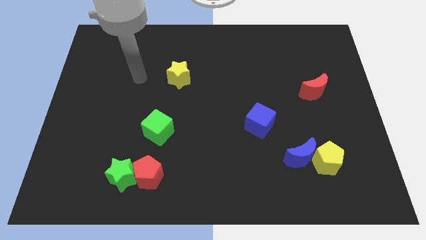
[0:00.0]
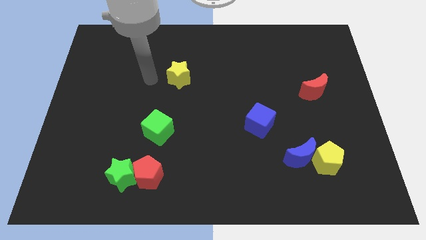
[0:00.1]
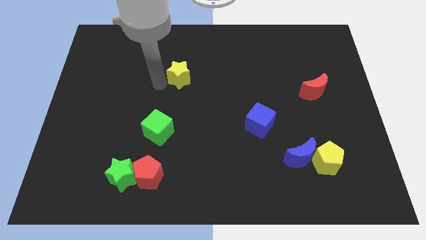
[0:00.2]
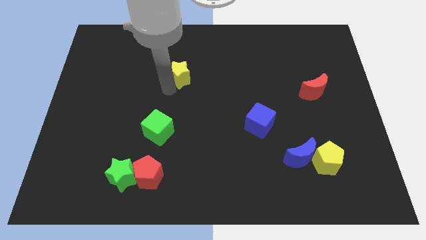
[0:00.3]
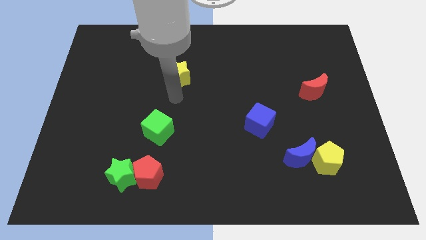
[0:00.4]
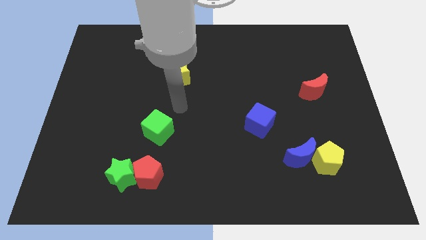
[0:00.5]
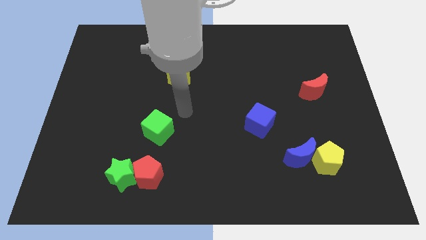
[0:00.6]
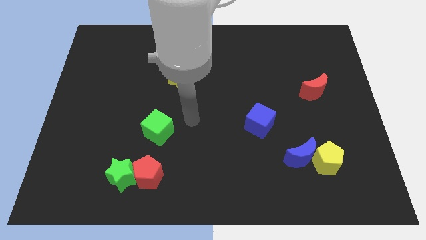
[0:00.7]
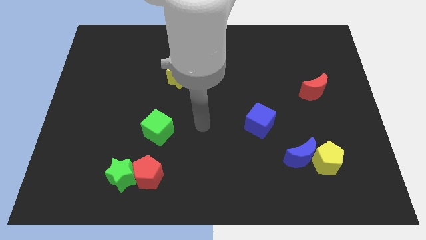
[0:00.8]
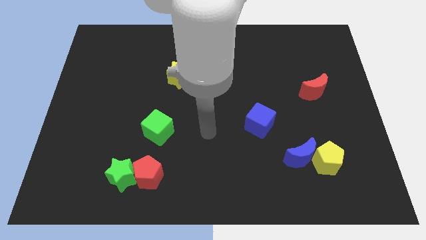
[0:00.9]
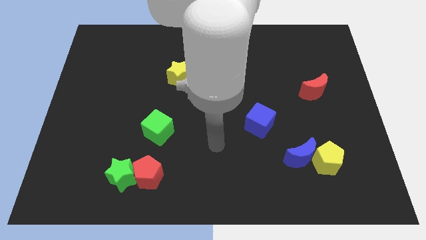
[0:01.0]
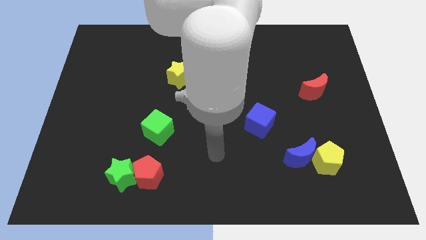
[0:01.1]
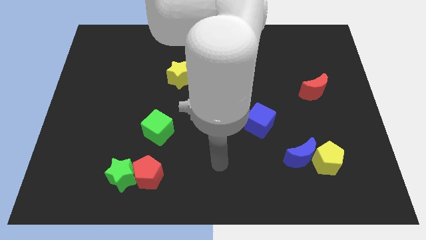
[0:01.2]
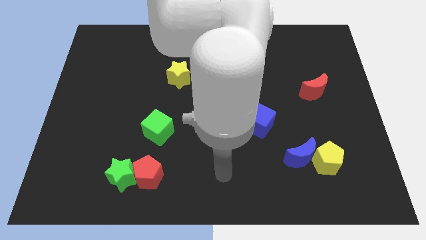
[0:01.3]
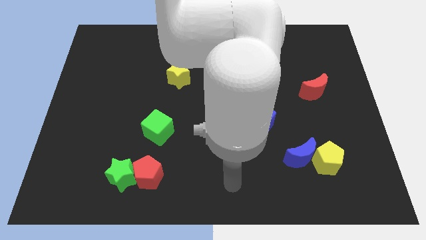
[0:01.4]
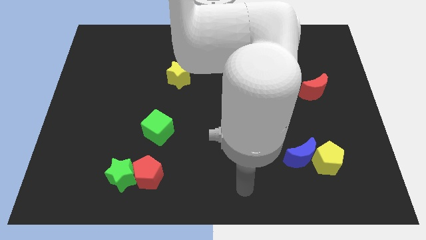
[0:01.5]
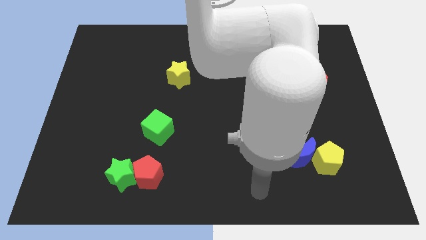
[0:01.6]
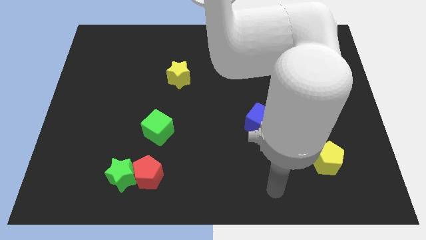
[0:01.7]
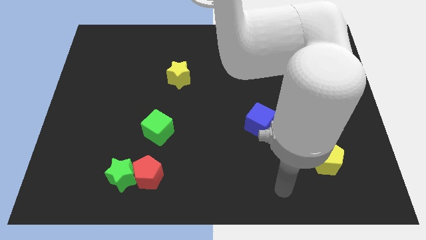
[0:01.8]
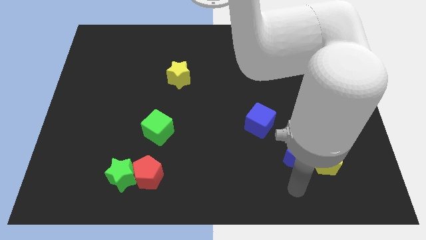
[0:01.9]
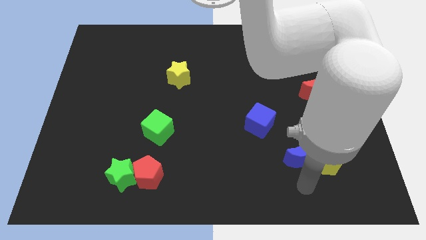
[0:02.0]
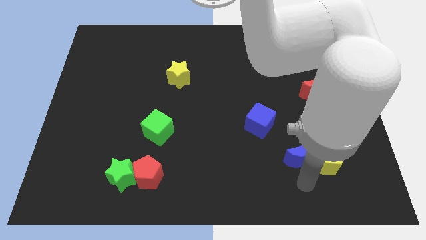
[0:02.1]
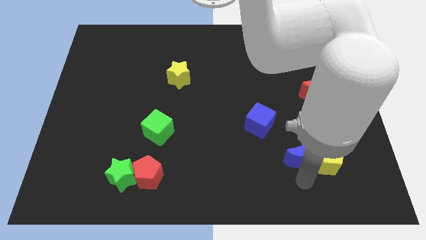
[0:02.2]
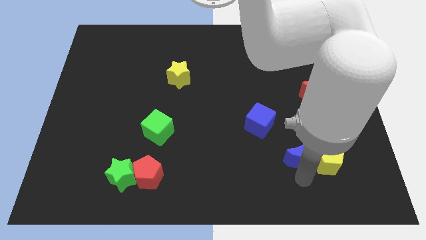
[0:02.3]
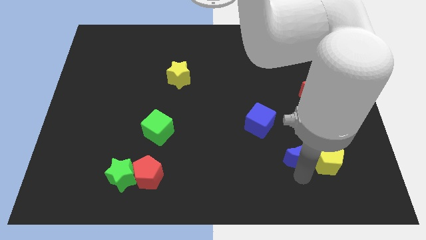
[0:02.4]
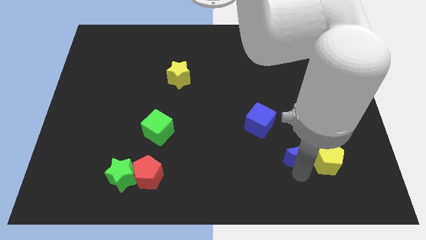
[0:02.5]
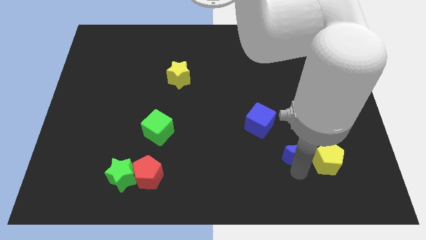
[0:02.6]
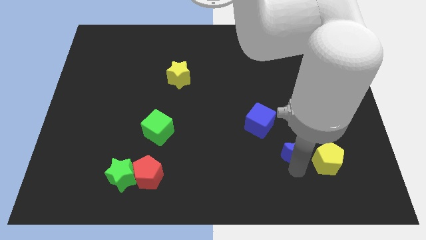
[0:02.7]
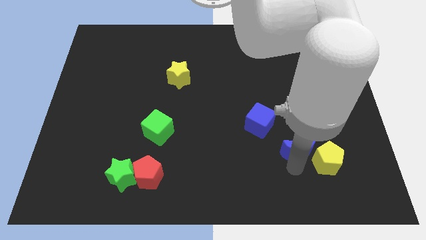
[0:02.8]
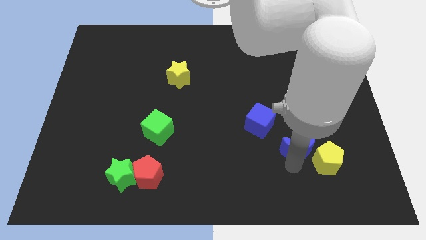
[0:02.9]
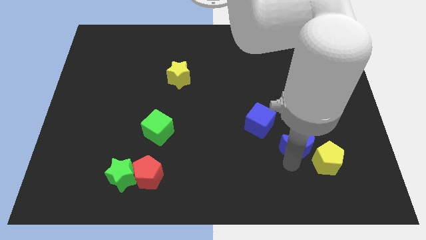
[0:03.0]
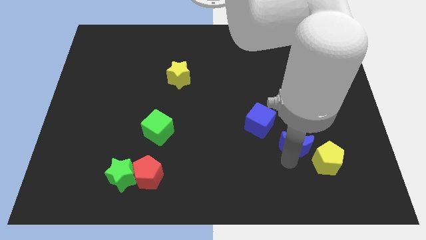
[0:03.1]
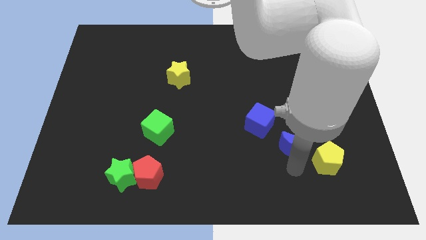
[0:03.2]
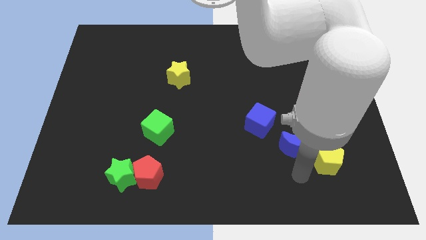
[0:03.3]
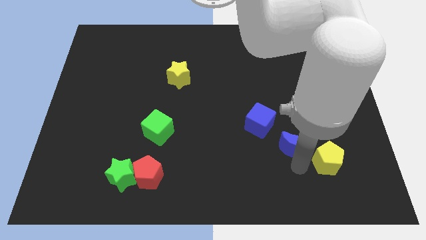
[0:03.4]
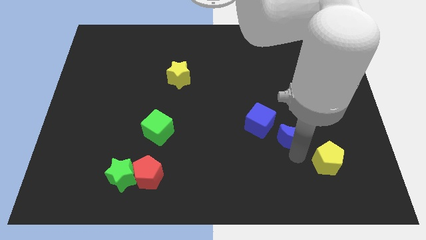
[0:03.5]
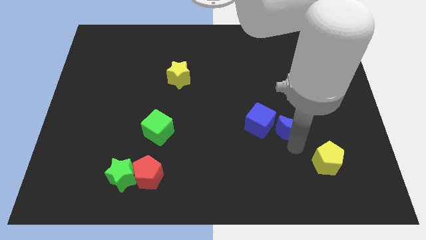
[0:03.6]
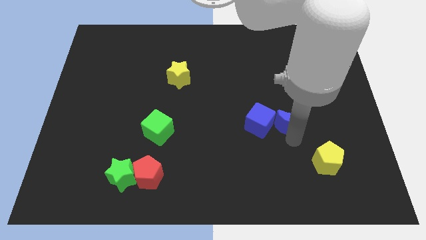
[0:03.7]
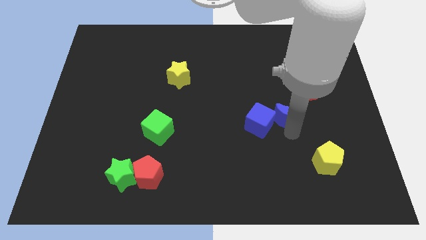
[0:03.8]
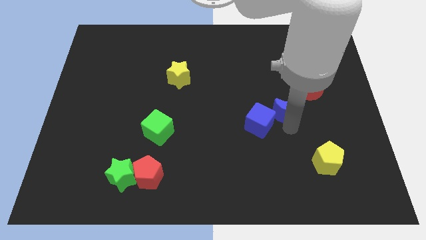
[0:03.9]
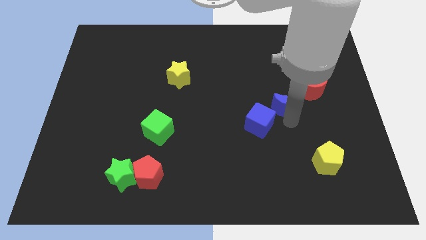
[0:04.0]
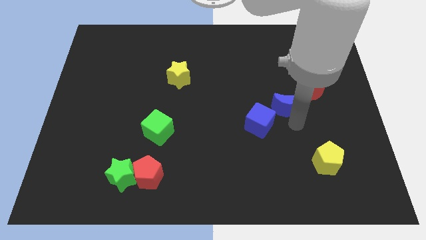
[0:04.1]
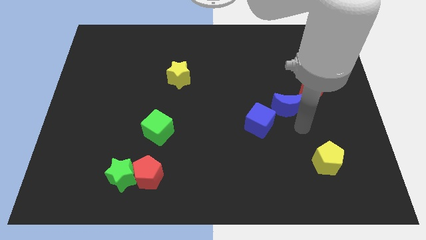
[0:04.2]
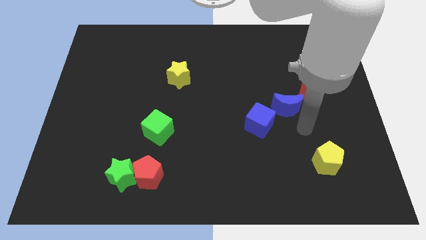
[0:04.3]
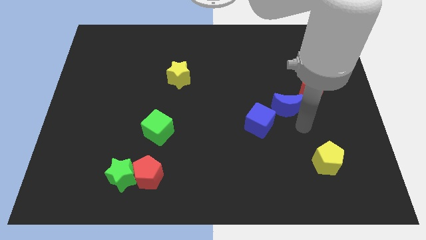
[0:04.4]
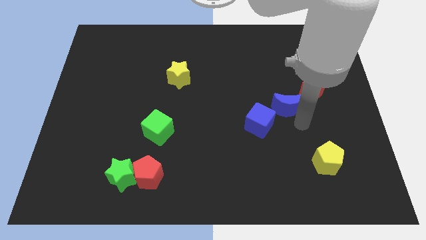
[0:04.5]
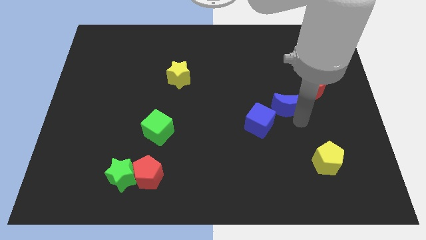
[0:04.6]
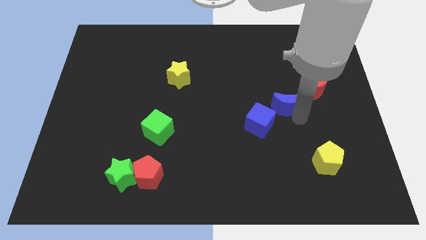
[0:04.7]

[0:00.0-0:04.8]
move the blue moon just left of the red moon

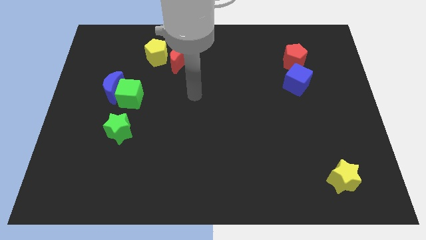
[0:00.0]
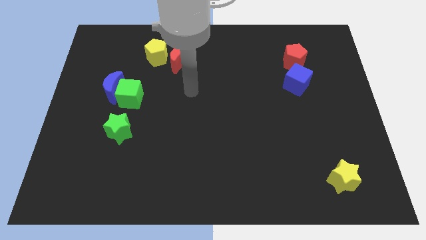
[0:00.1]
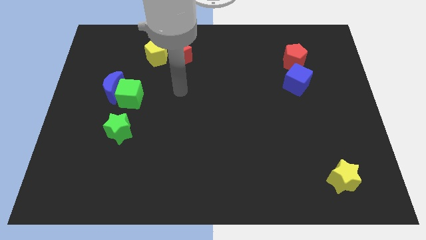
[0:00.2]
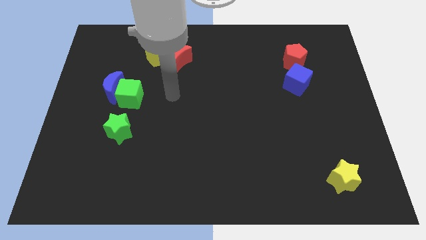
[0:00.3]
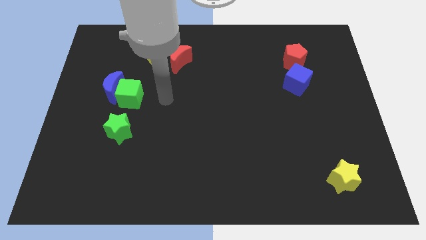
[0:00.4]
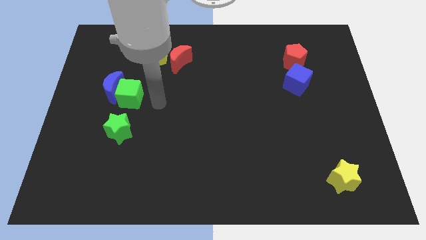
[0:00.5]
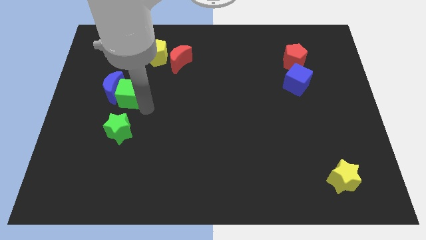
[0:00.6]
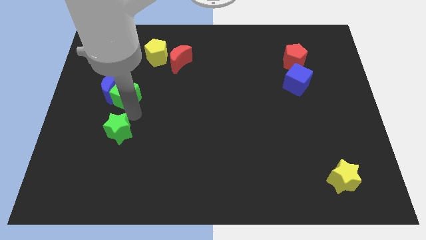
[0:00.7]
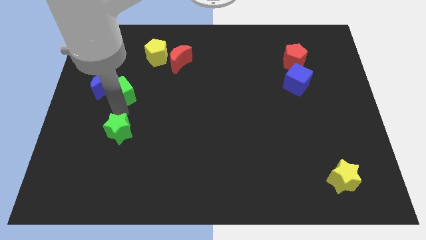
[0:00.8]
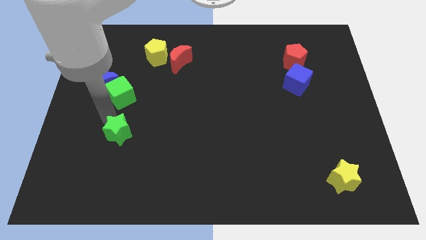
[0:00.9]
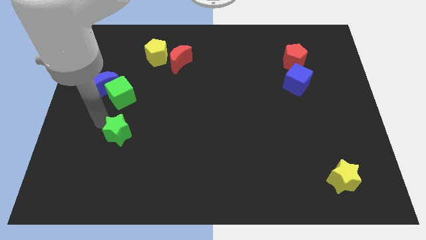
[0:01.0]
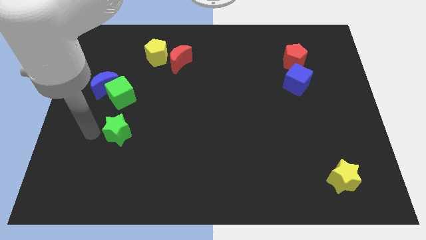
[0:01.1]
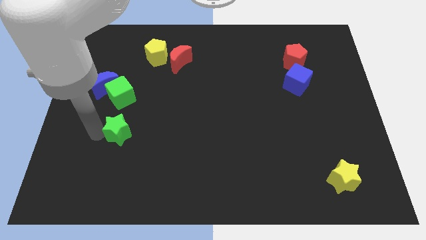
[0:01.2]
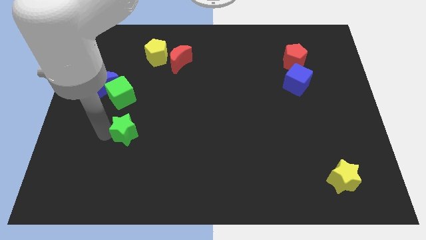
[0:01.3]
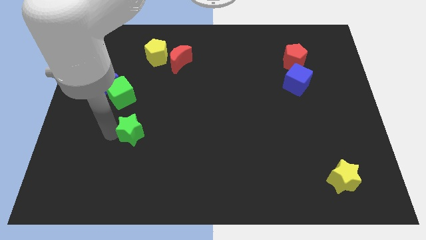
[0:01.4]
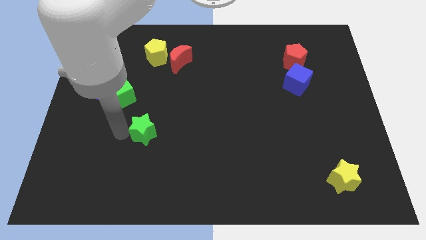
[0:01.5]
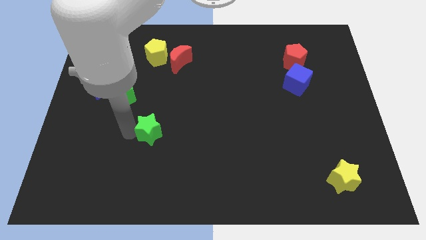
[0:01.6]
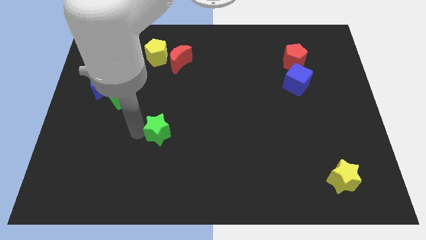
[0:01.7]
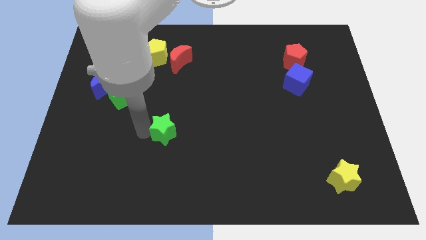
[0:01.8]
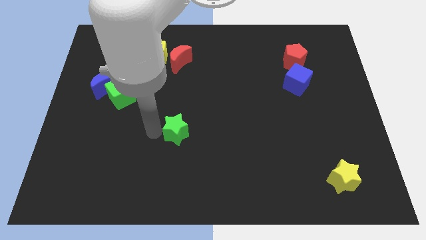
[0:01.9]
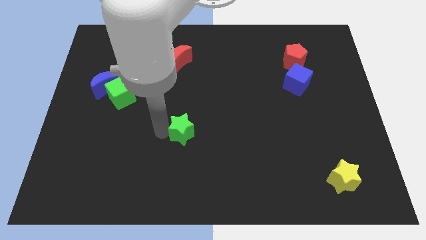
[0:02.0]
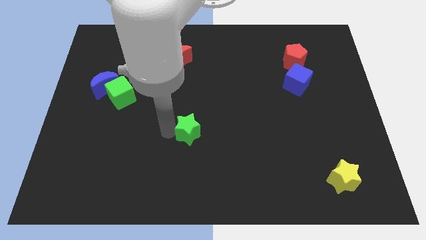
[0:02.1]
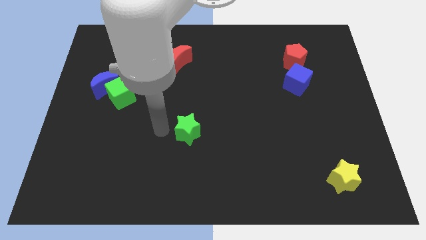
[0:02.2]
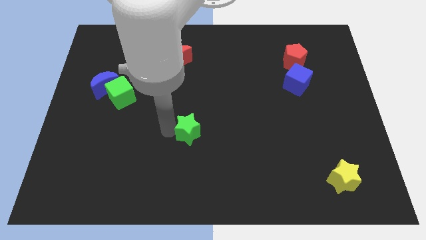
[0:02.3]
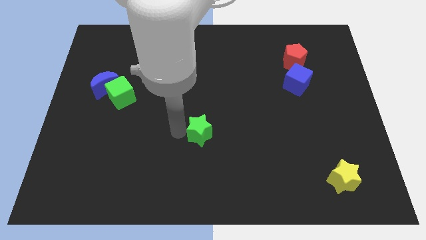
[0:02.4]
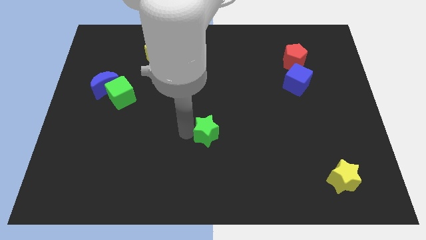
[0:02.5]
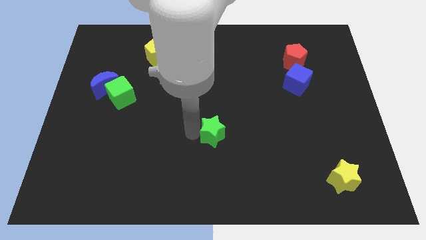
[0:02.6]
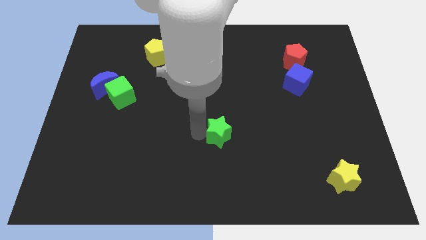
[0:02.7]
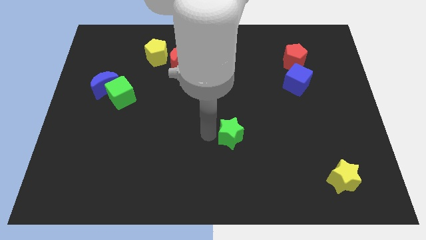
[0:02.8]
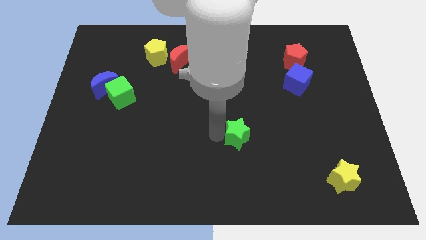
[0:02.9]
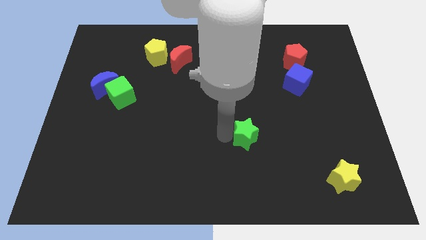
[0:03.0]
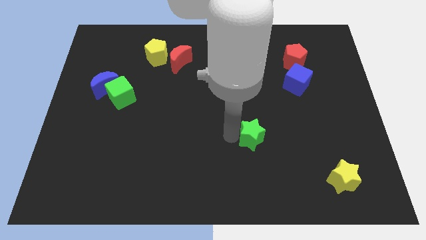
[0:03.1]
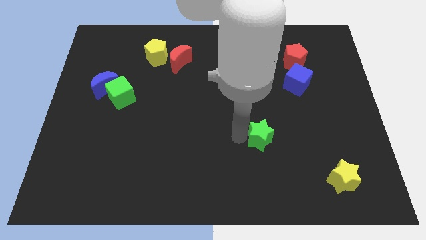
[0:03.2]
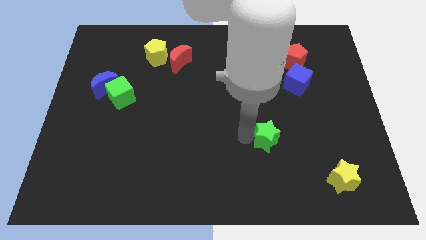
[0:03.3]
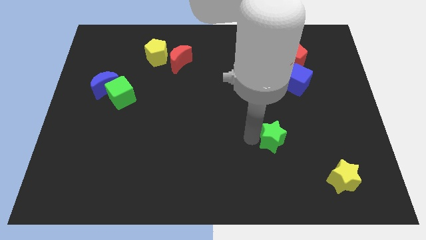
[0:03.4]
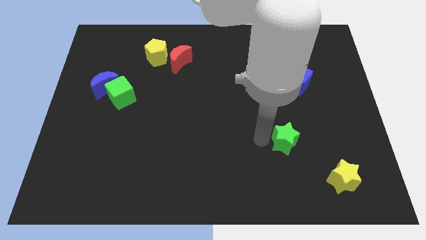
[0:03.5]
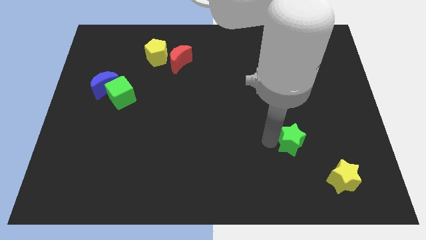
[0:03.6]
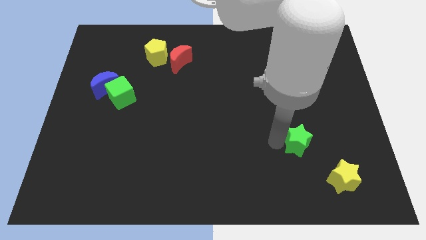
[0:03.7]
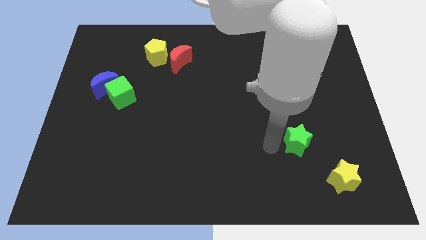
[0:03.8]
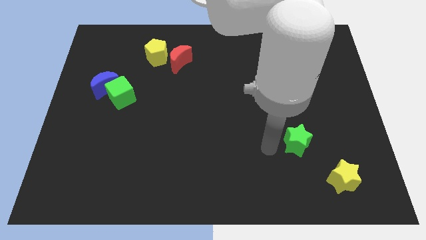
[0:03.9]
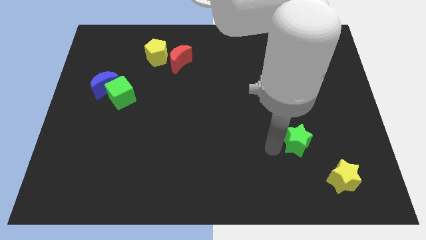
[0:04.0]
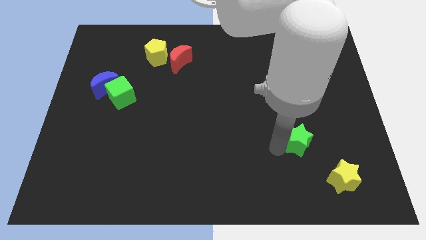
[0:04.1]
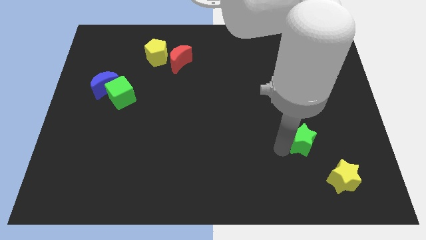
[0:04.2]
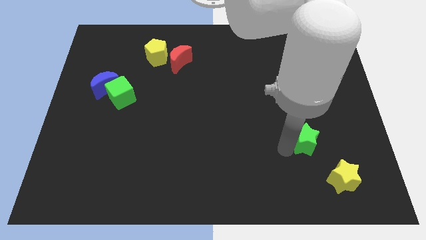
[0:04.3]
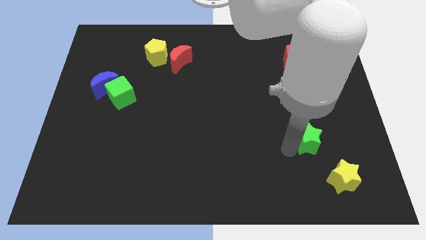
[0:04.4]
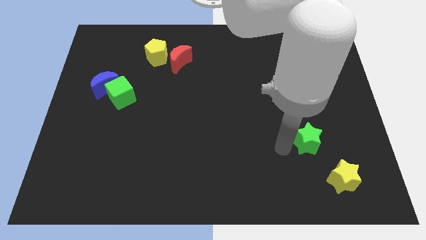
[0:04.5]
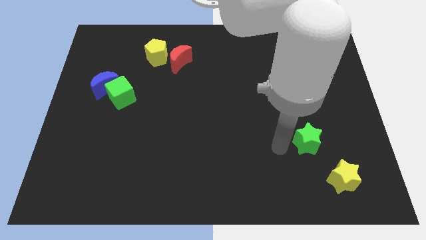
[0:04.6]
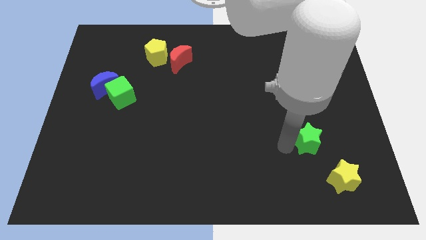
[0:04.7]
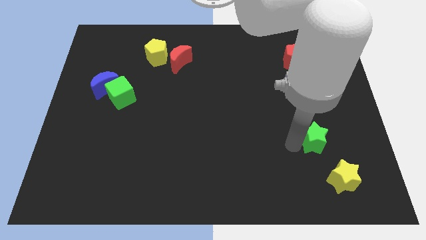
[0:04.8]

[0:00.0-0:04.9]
move the green star to the top side of the yellow star
